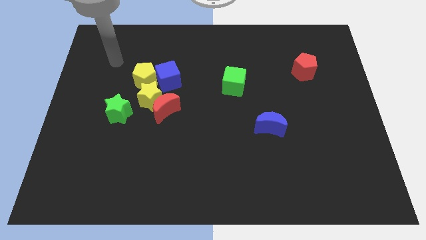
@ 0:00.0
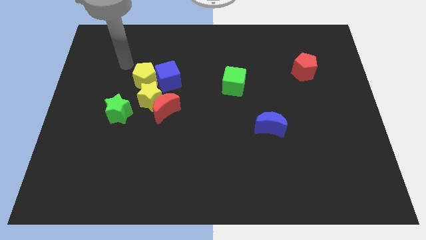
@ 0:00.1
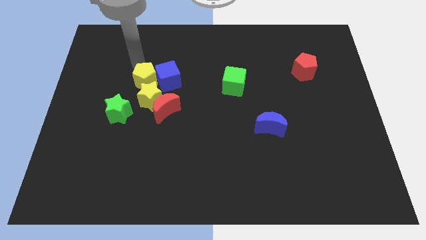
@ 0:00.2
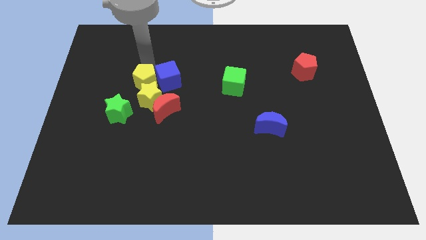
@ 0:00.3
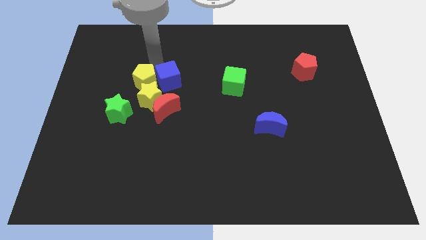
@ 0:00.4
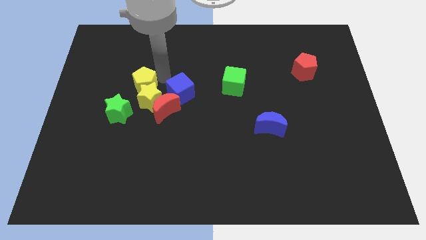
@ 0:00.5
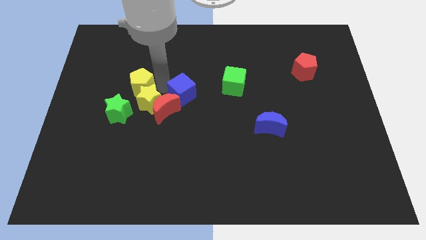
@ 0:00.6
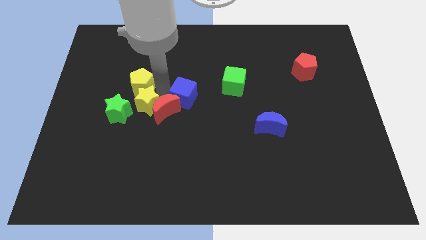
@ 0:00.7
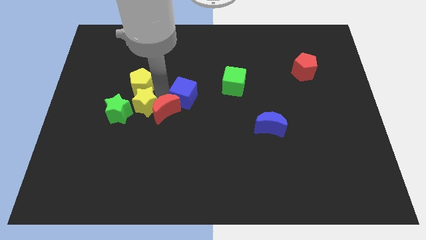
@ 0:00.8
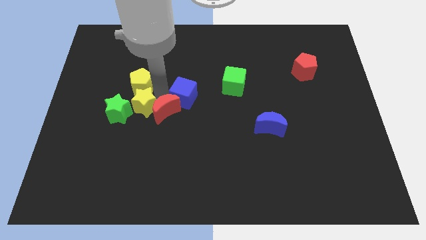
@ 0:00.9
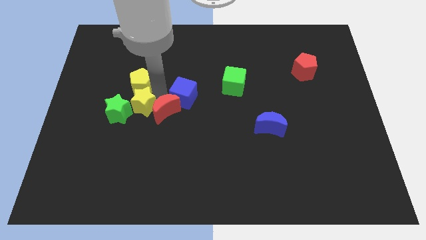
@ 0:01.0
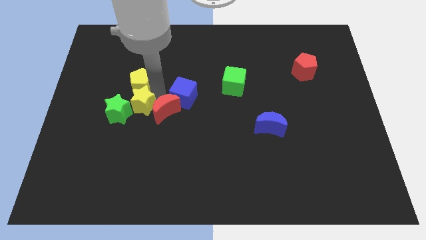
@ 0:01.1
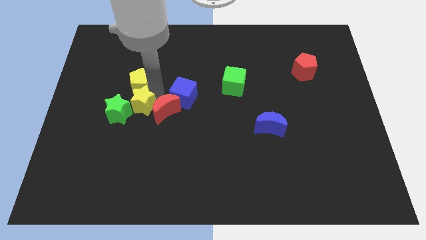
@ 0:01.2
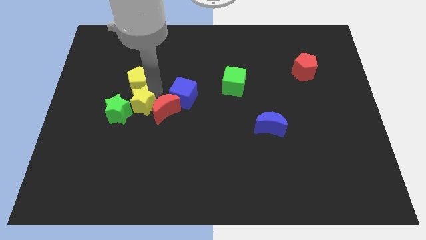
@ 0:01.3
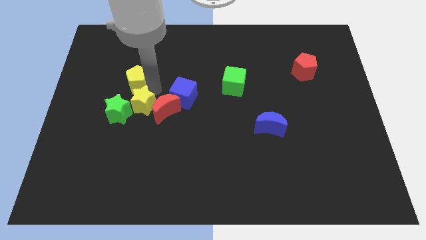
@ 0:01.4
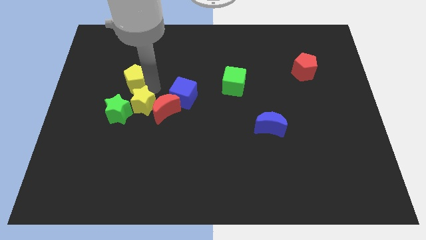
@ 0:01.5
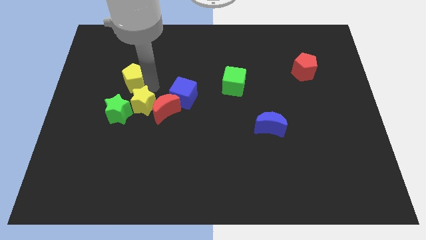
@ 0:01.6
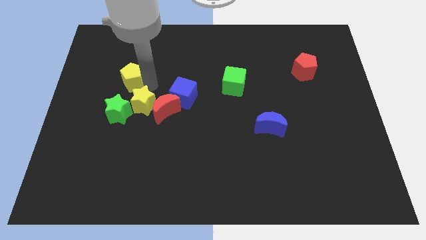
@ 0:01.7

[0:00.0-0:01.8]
separate the yellow pentagon from the blue cube and yellow star

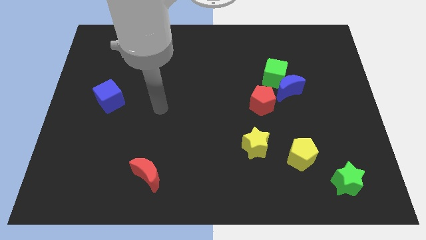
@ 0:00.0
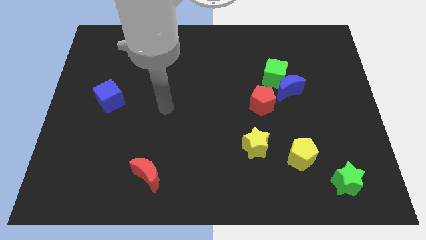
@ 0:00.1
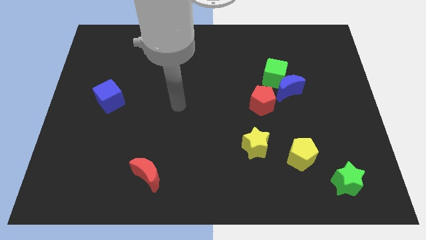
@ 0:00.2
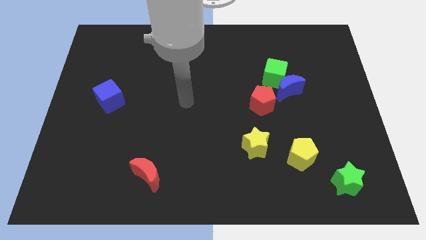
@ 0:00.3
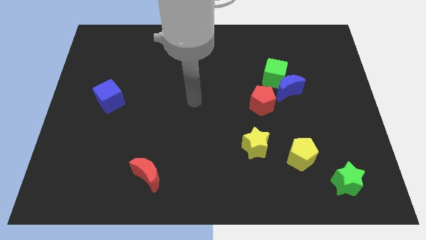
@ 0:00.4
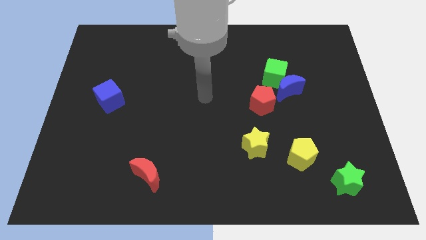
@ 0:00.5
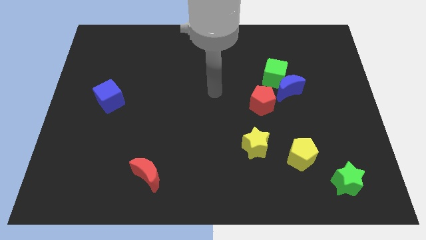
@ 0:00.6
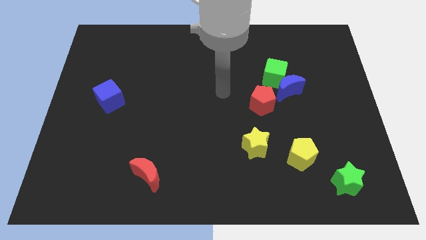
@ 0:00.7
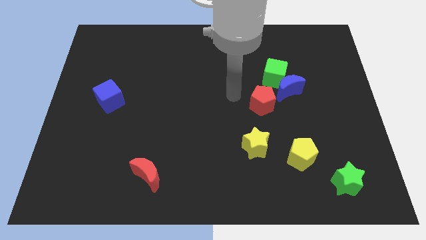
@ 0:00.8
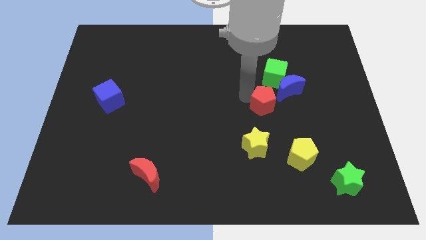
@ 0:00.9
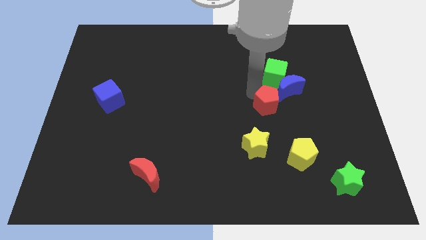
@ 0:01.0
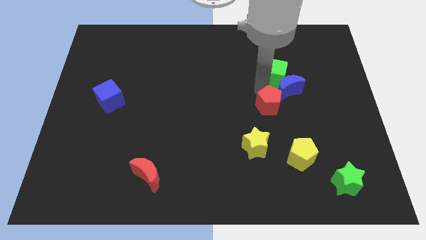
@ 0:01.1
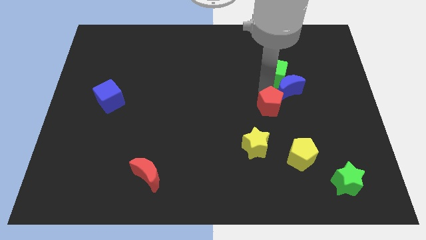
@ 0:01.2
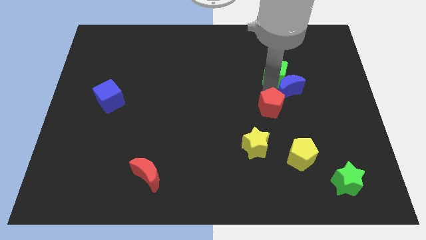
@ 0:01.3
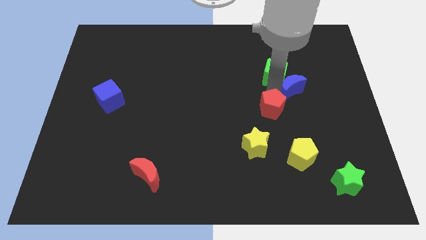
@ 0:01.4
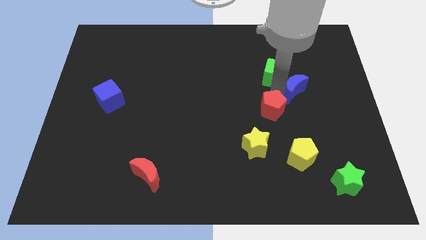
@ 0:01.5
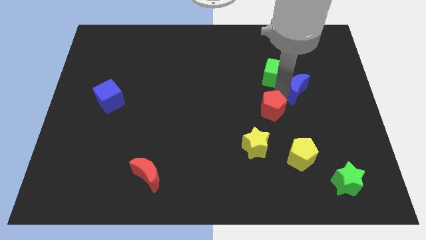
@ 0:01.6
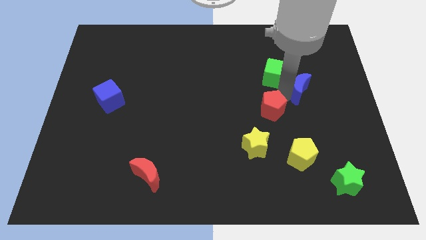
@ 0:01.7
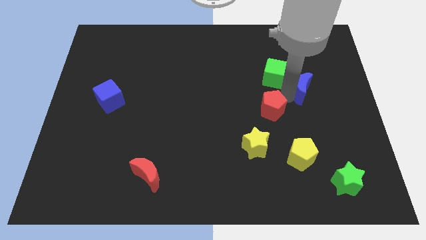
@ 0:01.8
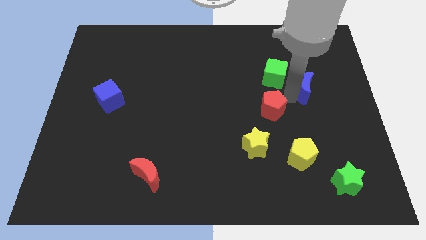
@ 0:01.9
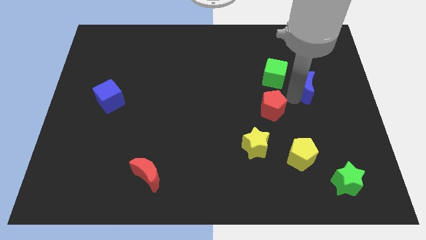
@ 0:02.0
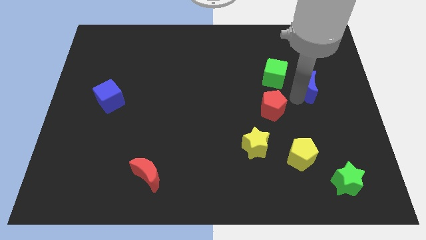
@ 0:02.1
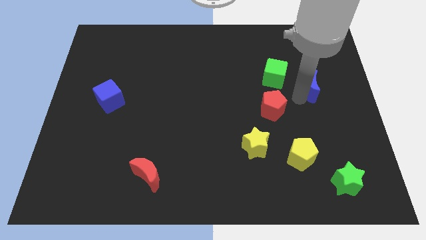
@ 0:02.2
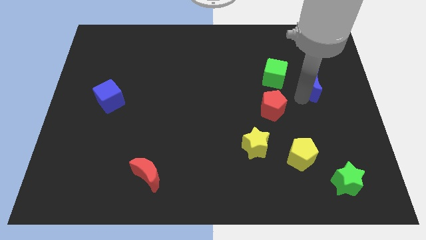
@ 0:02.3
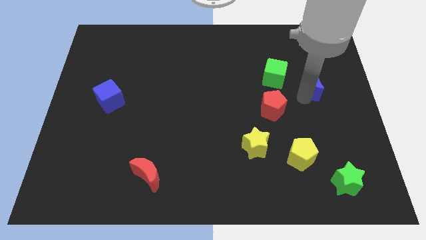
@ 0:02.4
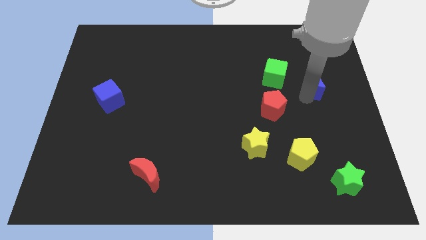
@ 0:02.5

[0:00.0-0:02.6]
pull the blue moon apart from the green cube and red pentagon

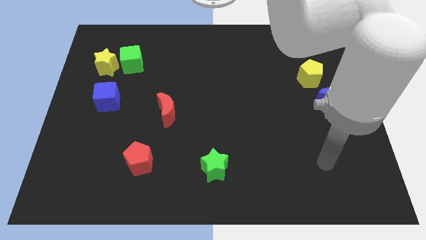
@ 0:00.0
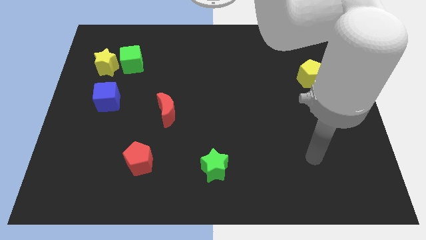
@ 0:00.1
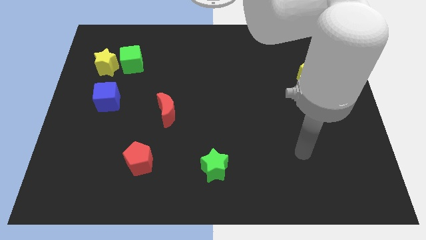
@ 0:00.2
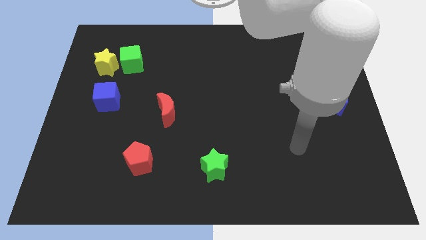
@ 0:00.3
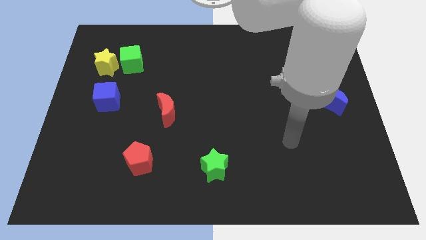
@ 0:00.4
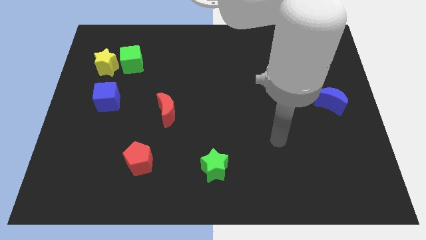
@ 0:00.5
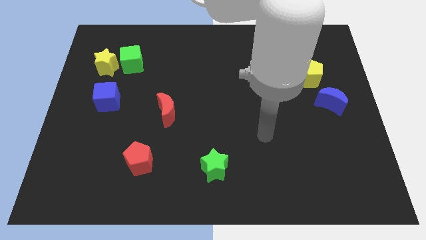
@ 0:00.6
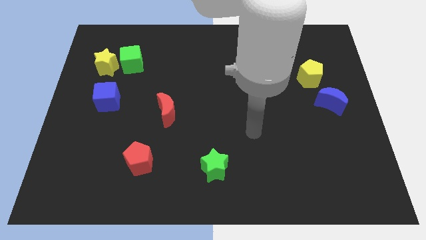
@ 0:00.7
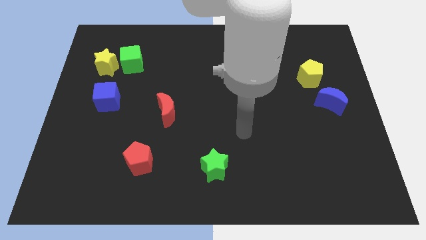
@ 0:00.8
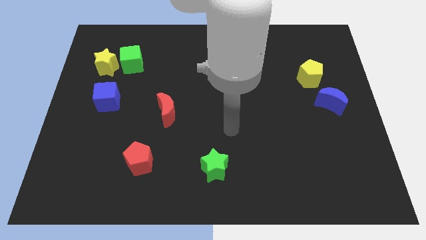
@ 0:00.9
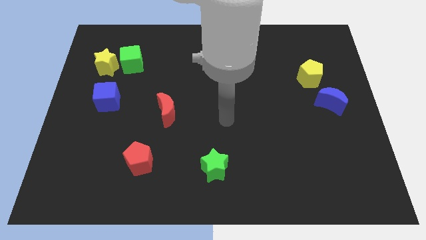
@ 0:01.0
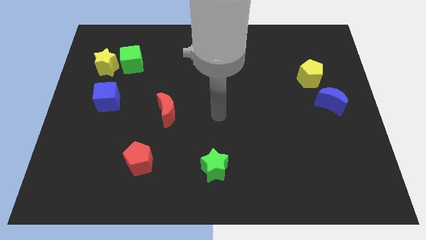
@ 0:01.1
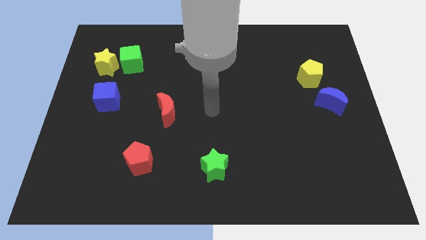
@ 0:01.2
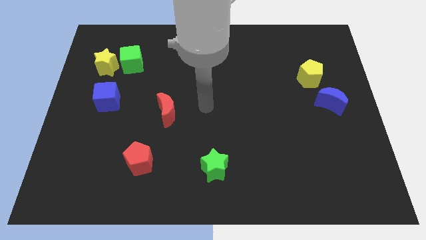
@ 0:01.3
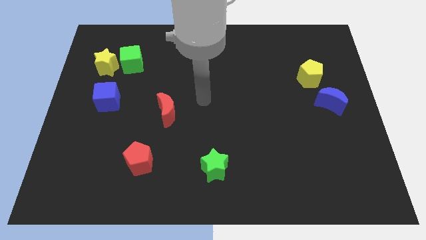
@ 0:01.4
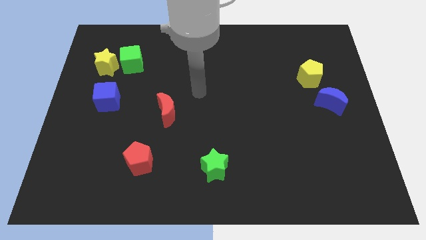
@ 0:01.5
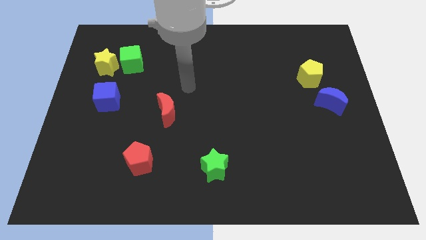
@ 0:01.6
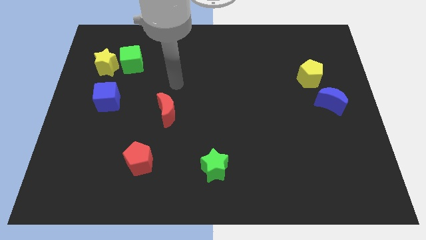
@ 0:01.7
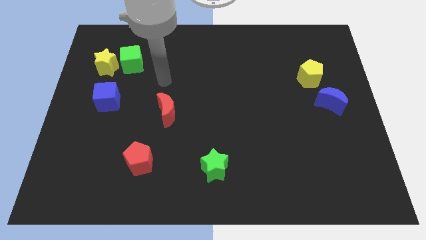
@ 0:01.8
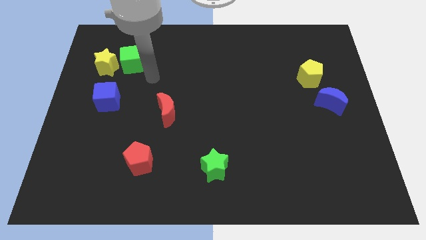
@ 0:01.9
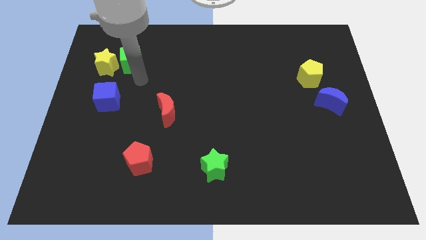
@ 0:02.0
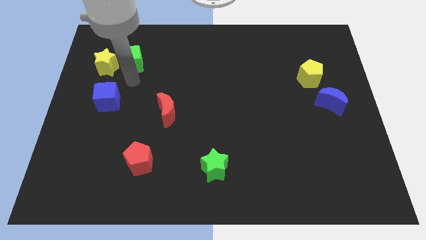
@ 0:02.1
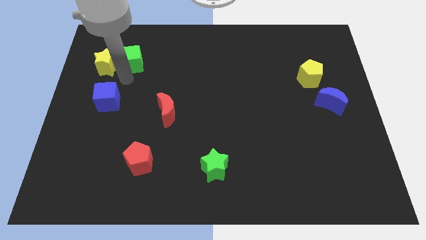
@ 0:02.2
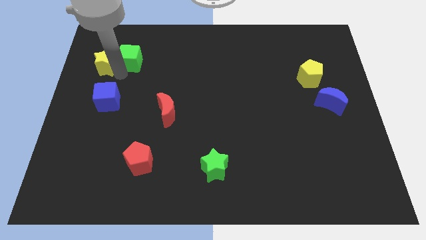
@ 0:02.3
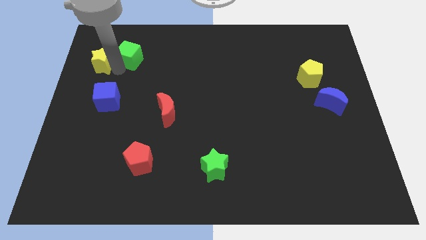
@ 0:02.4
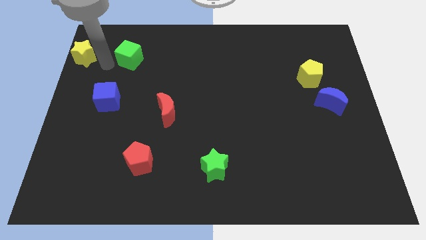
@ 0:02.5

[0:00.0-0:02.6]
separate the green cube from the yellow star

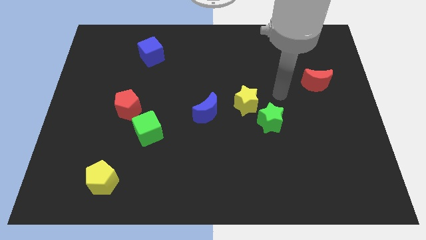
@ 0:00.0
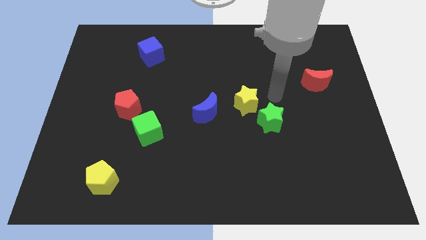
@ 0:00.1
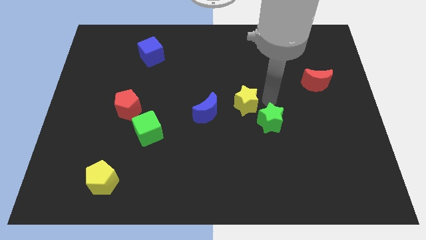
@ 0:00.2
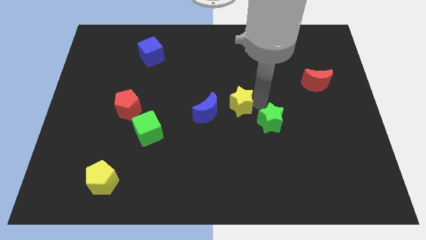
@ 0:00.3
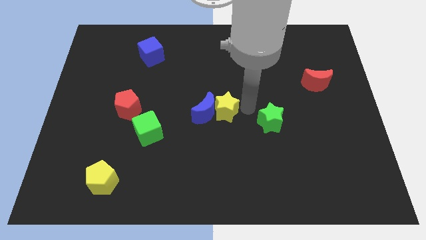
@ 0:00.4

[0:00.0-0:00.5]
pull the green star apart from the yellow star

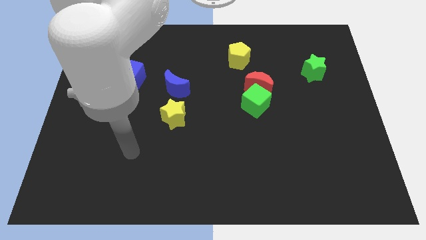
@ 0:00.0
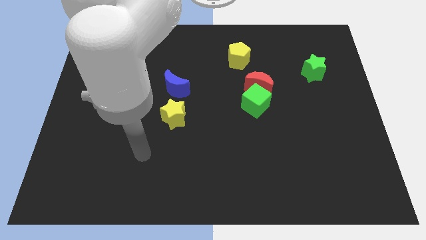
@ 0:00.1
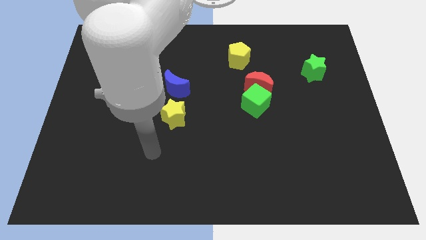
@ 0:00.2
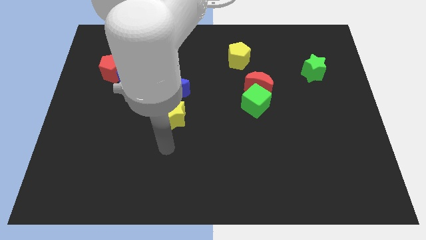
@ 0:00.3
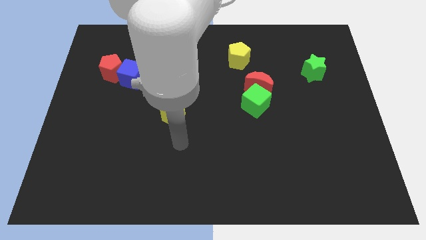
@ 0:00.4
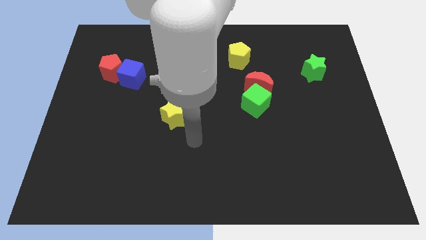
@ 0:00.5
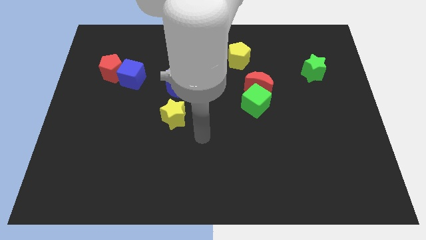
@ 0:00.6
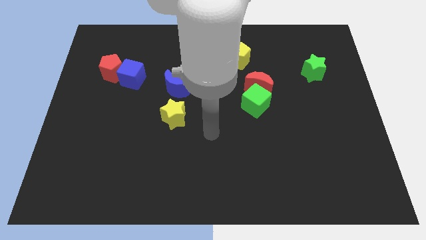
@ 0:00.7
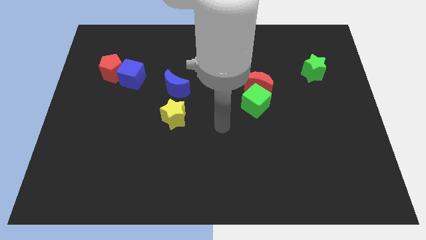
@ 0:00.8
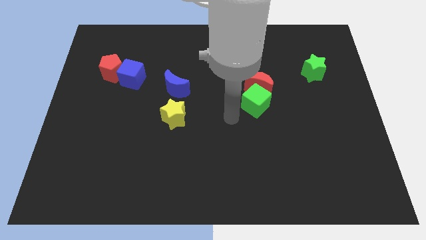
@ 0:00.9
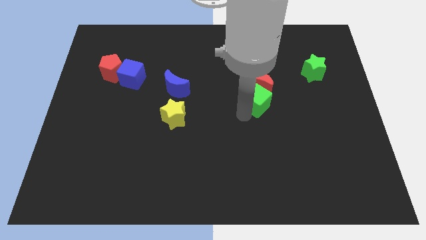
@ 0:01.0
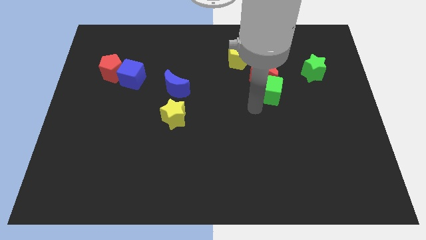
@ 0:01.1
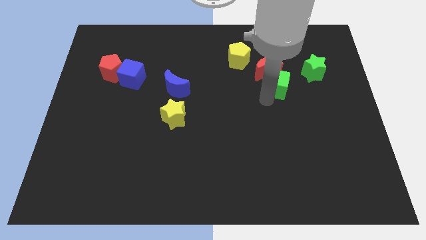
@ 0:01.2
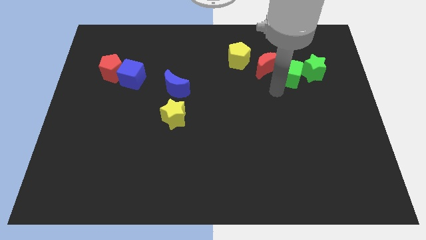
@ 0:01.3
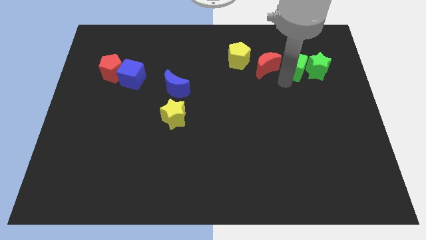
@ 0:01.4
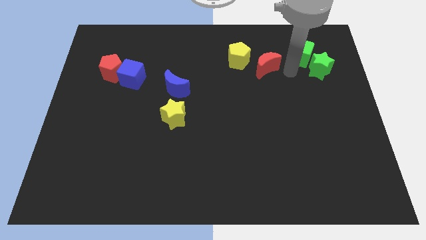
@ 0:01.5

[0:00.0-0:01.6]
pull the red moon apart from the green cube
